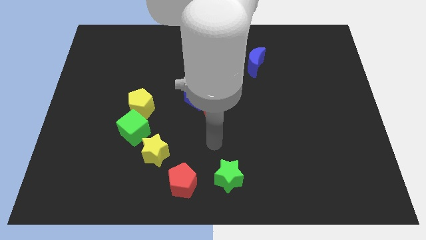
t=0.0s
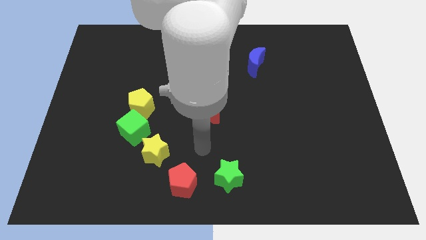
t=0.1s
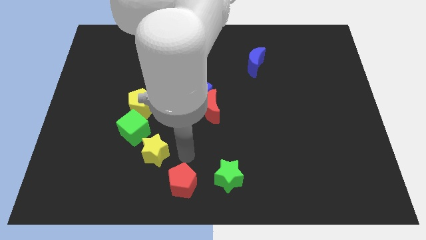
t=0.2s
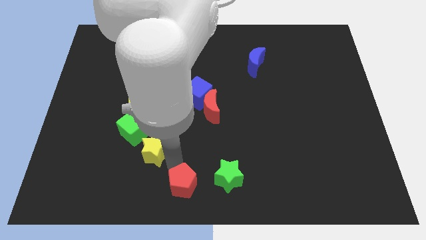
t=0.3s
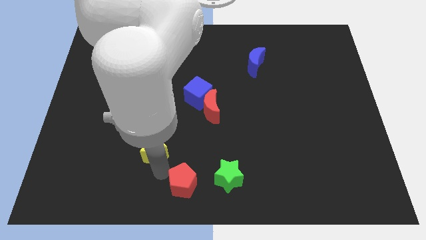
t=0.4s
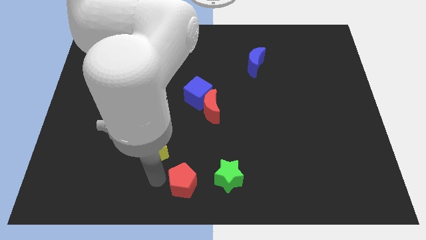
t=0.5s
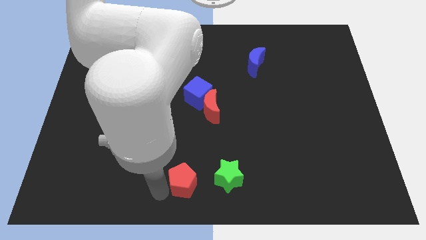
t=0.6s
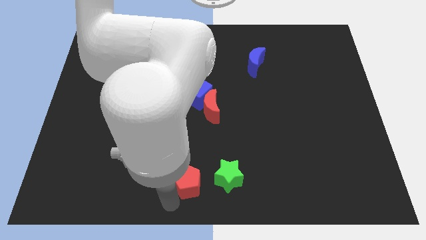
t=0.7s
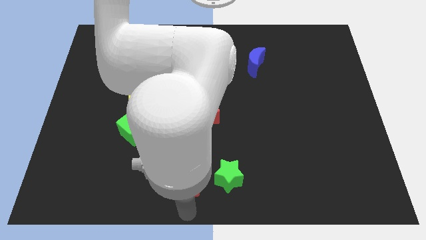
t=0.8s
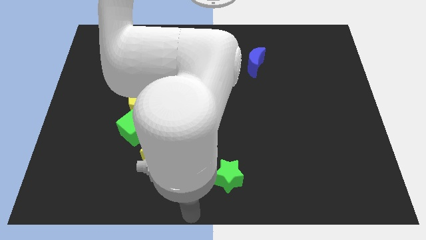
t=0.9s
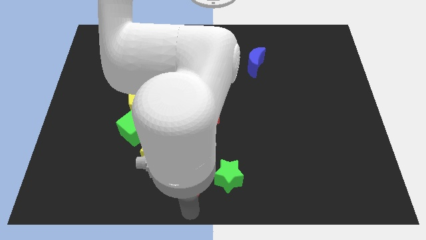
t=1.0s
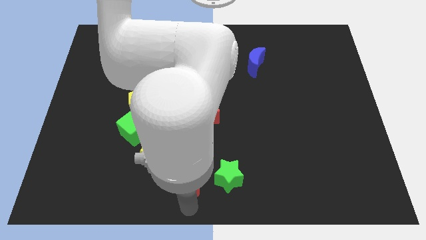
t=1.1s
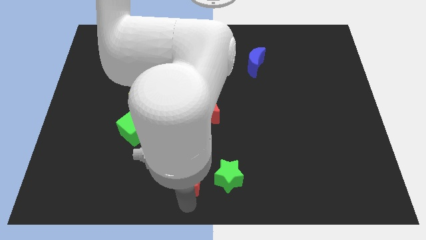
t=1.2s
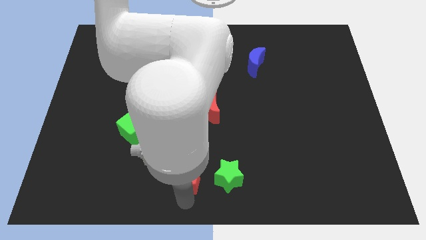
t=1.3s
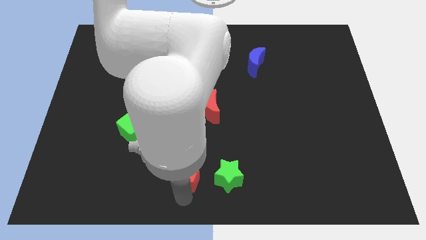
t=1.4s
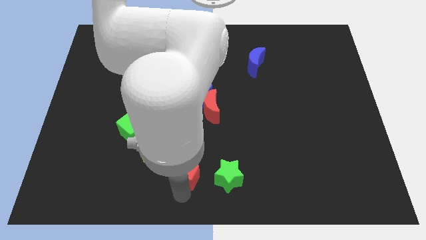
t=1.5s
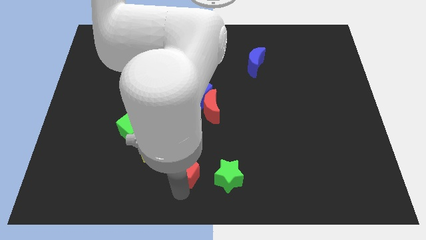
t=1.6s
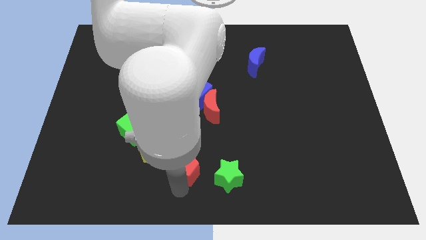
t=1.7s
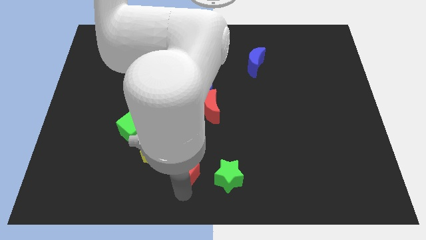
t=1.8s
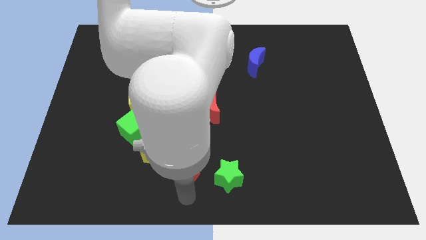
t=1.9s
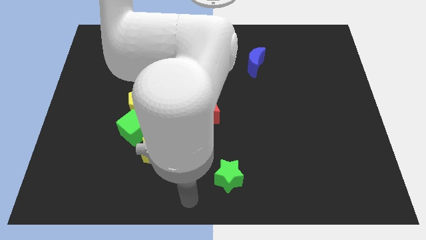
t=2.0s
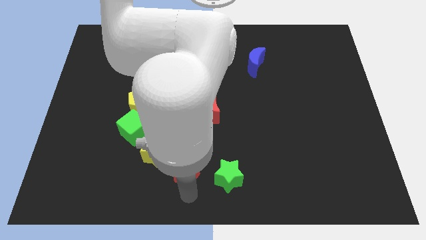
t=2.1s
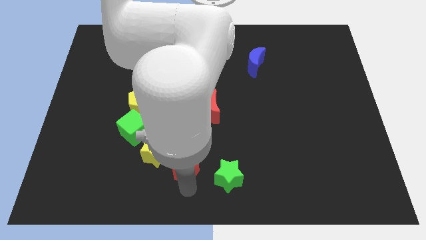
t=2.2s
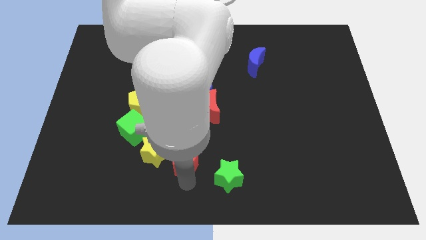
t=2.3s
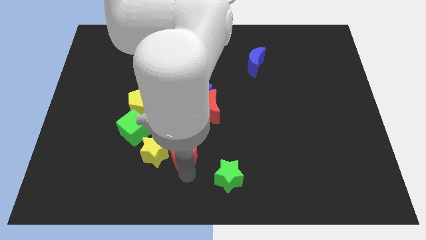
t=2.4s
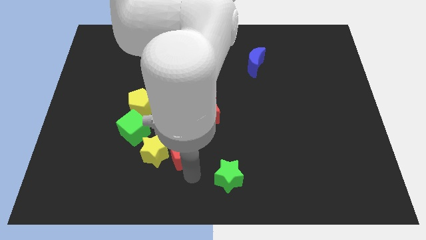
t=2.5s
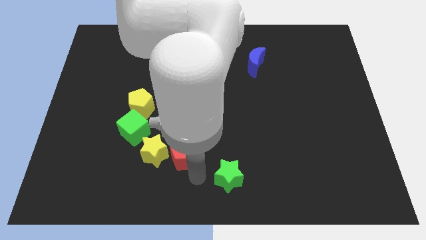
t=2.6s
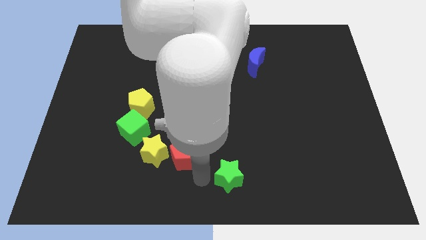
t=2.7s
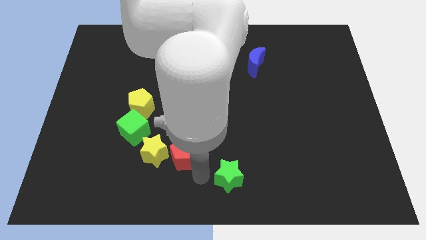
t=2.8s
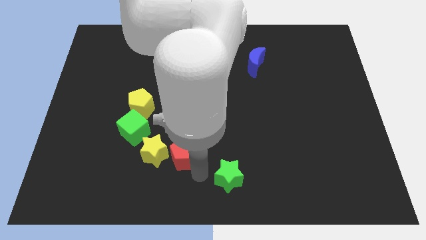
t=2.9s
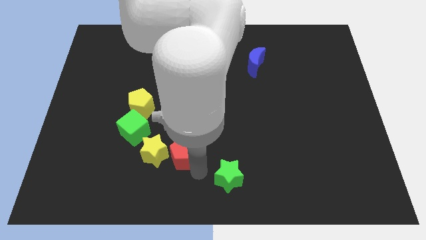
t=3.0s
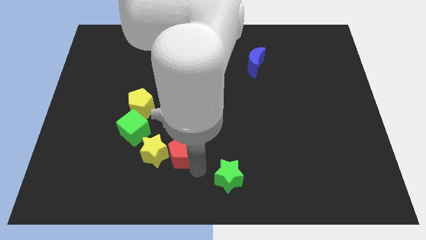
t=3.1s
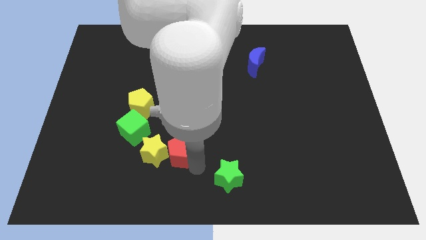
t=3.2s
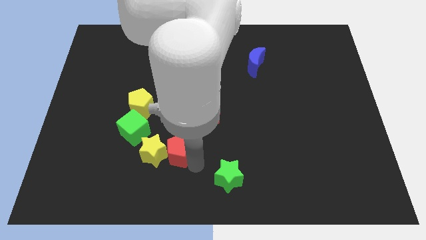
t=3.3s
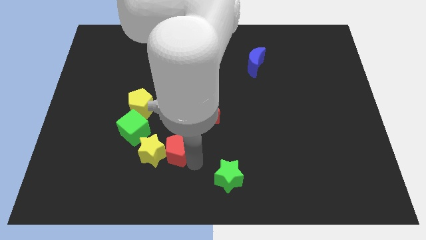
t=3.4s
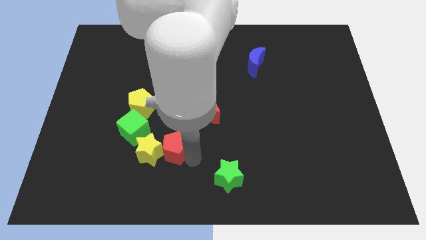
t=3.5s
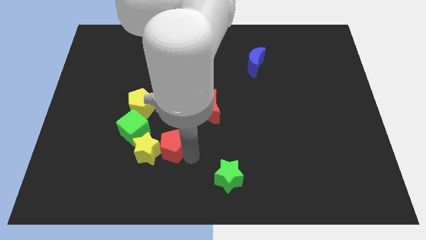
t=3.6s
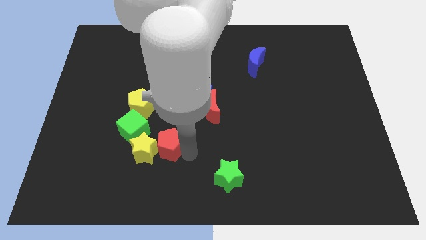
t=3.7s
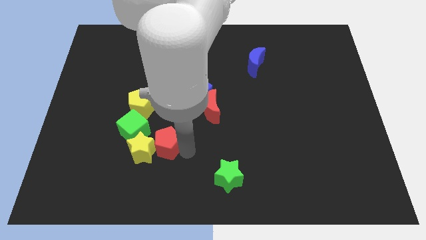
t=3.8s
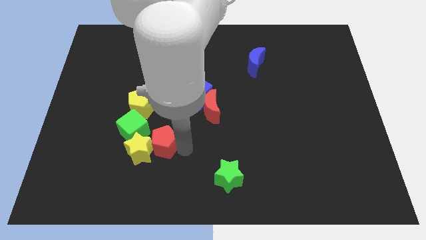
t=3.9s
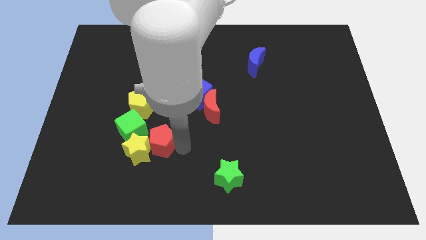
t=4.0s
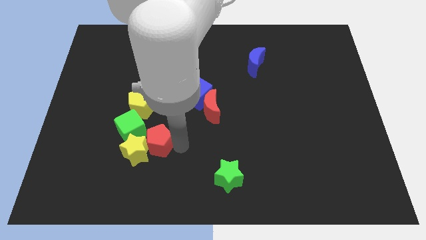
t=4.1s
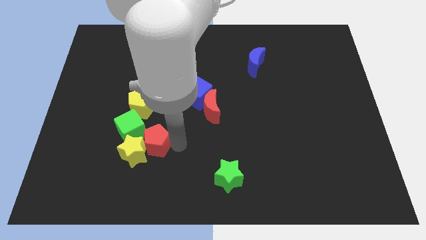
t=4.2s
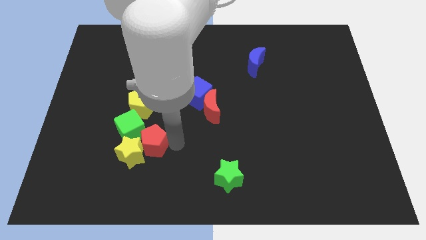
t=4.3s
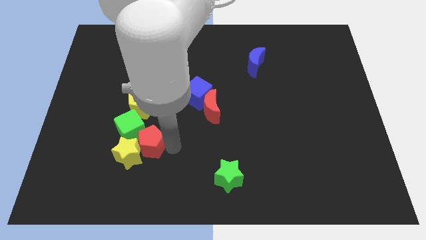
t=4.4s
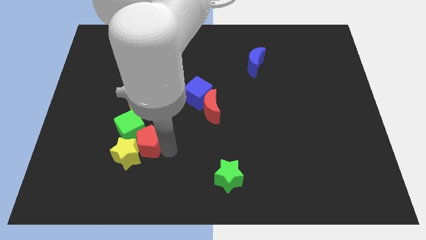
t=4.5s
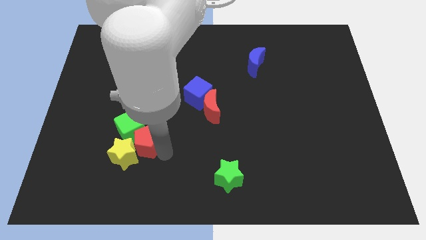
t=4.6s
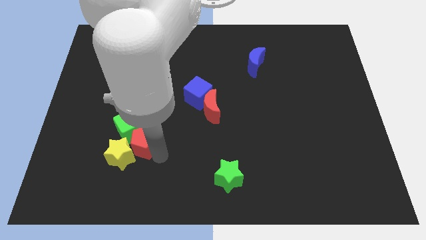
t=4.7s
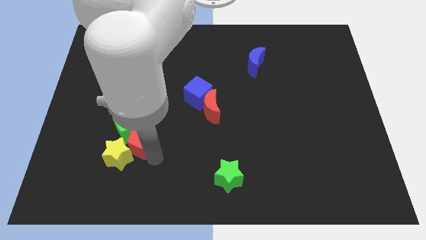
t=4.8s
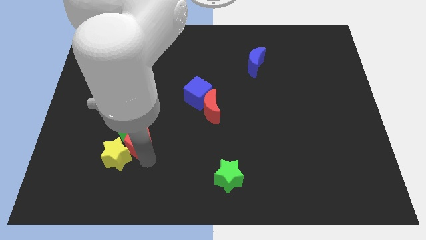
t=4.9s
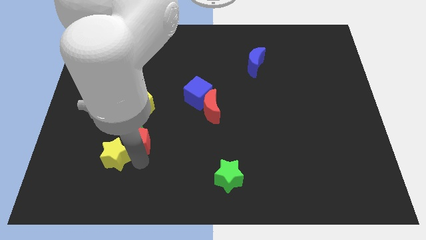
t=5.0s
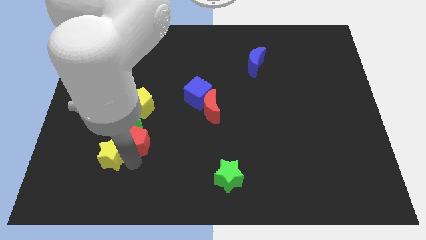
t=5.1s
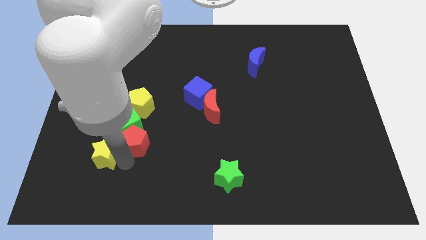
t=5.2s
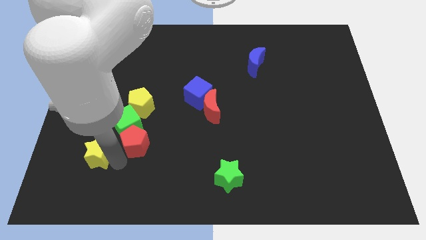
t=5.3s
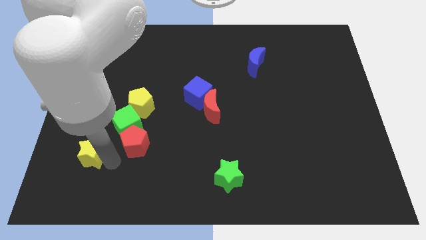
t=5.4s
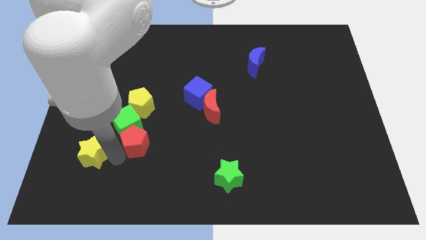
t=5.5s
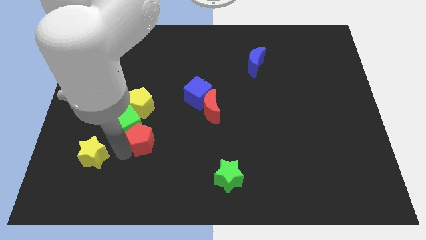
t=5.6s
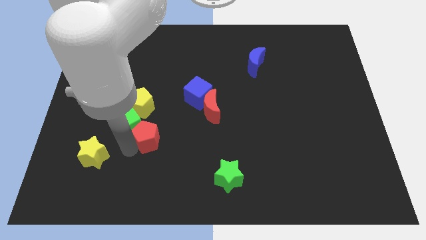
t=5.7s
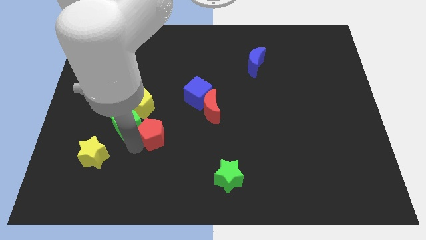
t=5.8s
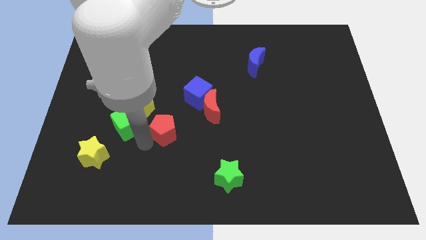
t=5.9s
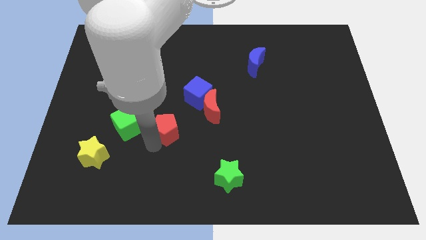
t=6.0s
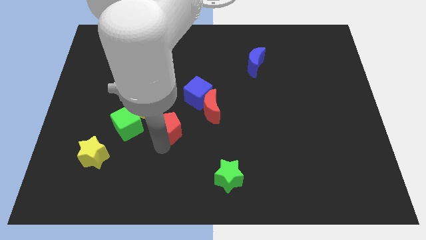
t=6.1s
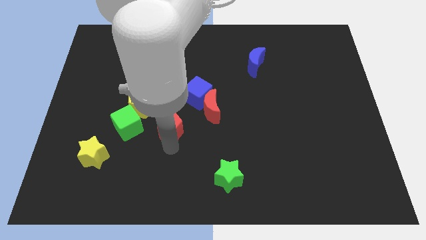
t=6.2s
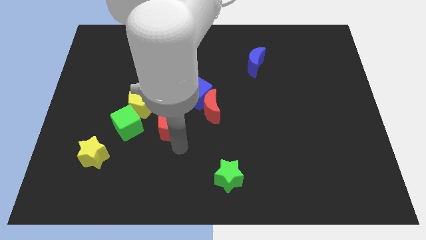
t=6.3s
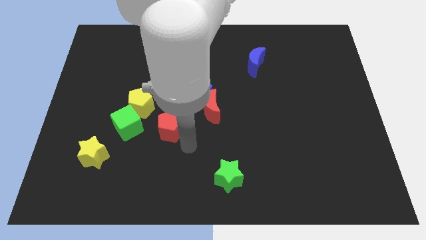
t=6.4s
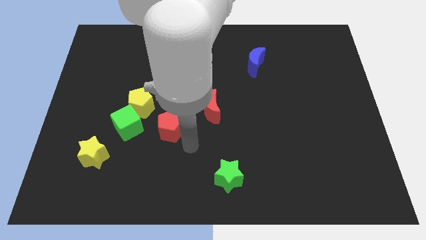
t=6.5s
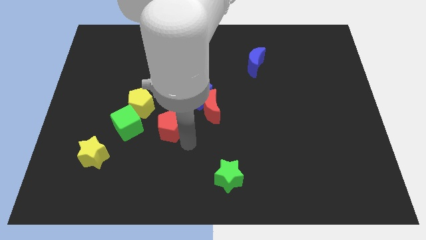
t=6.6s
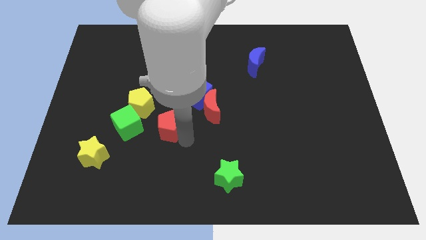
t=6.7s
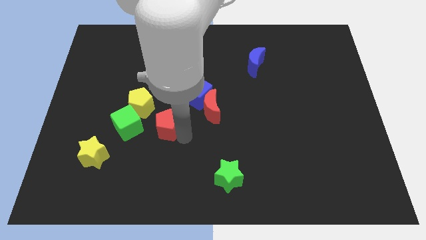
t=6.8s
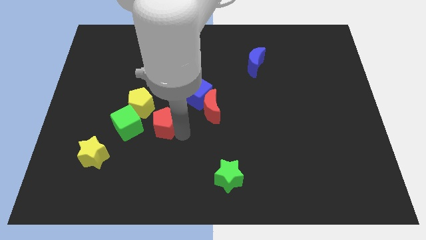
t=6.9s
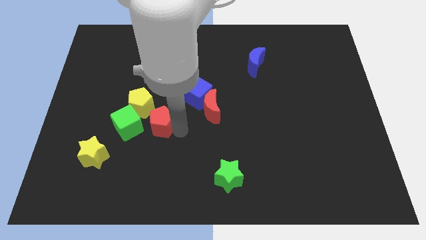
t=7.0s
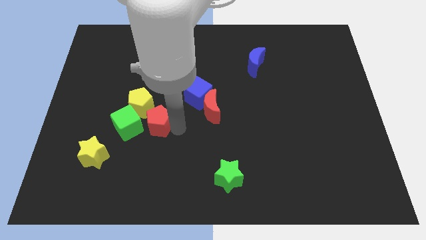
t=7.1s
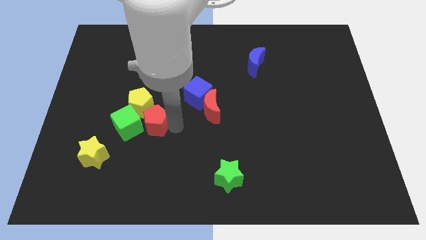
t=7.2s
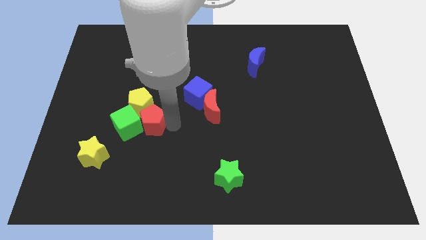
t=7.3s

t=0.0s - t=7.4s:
put the red pentagon next to the yellow pentagon

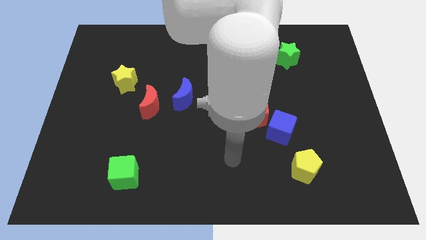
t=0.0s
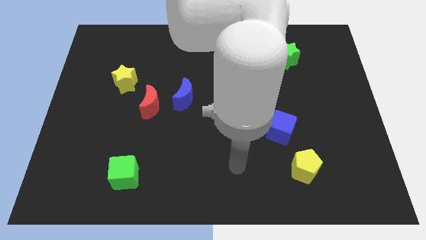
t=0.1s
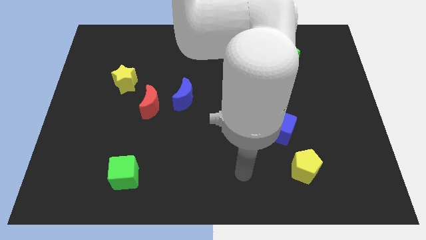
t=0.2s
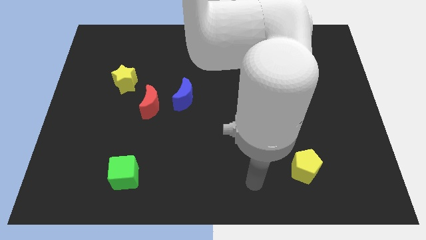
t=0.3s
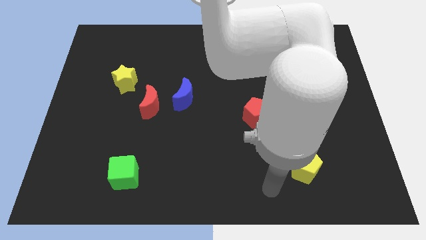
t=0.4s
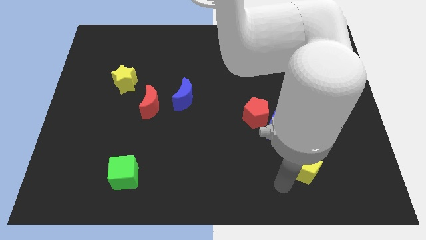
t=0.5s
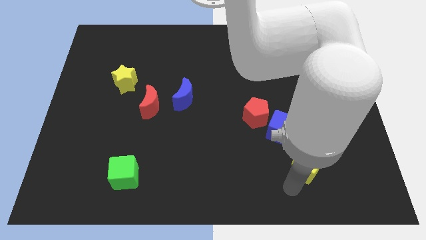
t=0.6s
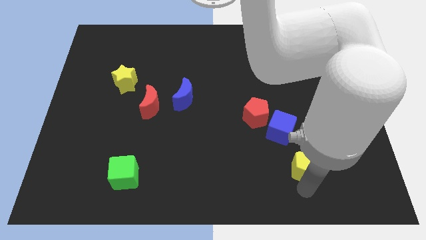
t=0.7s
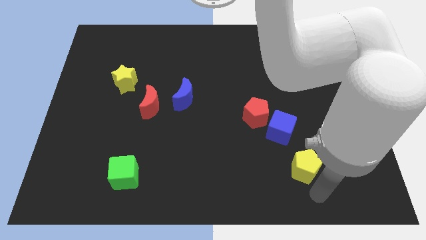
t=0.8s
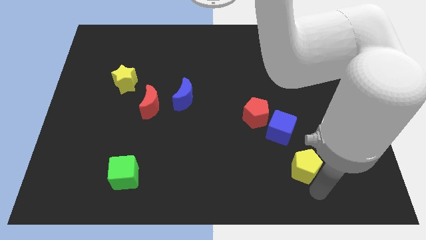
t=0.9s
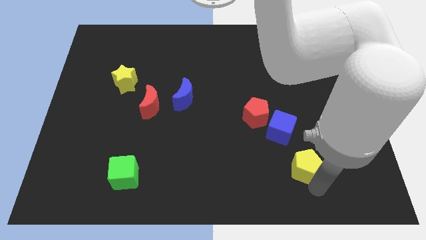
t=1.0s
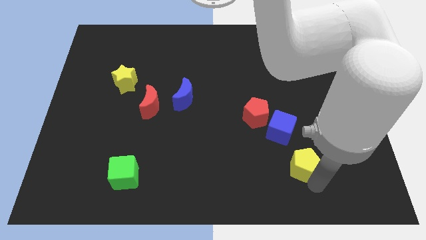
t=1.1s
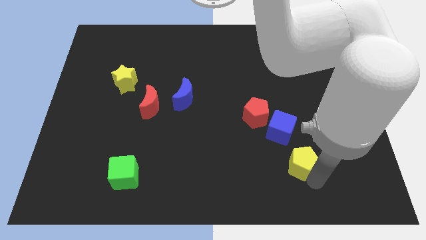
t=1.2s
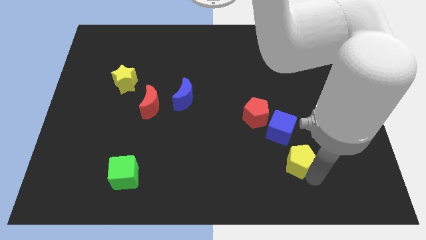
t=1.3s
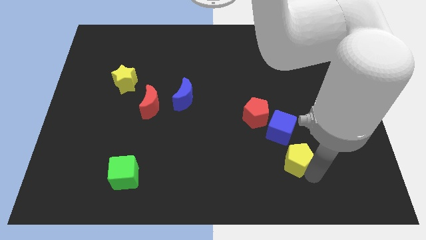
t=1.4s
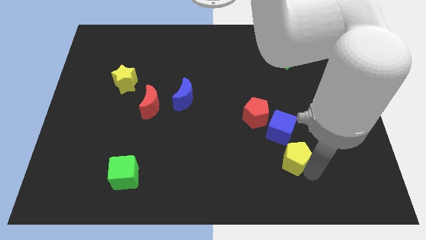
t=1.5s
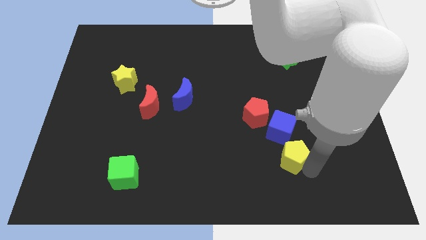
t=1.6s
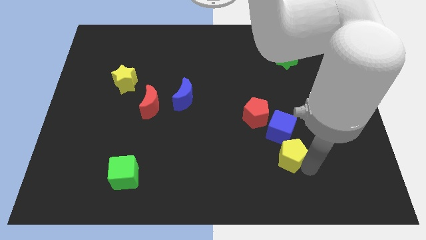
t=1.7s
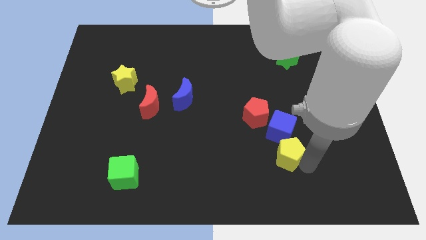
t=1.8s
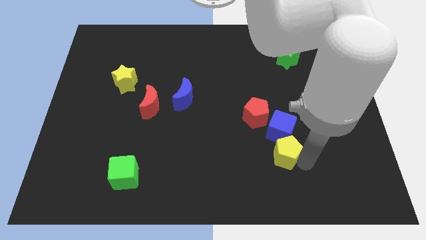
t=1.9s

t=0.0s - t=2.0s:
push the yellow pentagon next to the blue cube
